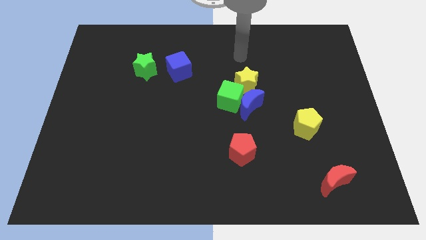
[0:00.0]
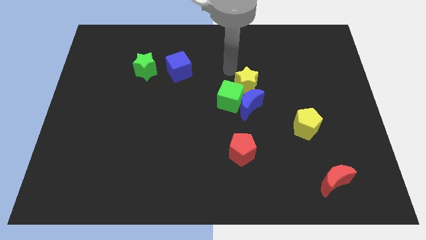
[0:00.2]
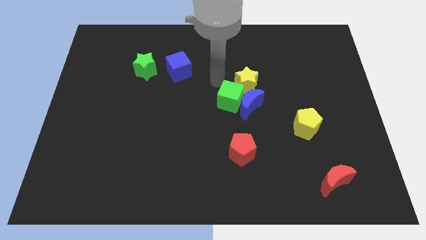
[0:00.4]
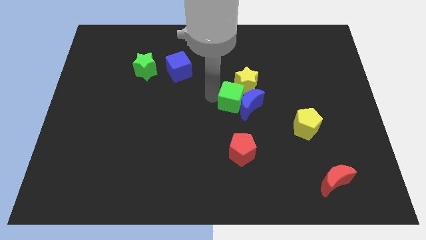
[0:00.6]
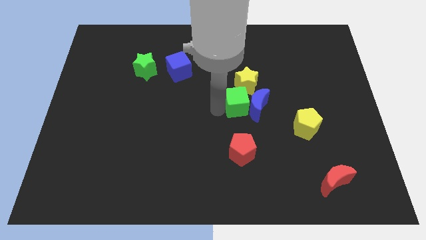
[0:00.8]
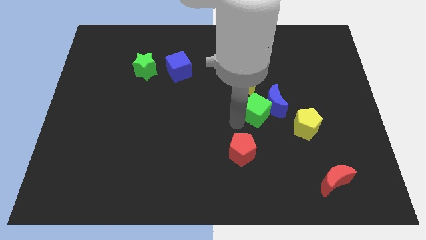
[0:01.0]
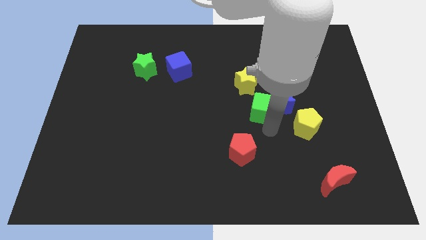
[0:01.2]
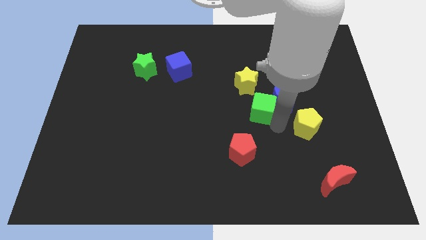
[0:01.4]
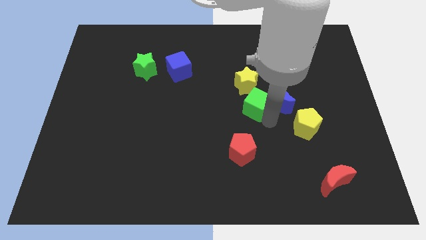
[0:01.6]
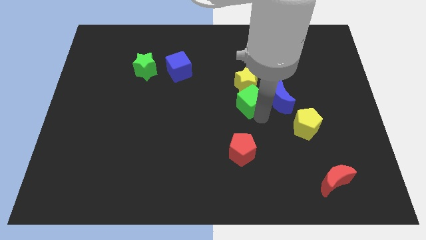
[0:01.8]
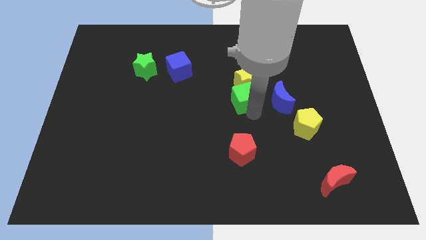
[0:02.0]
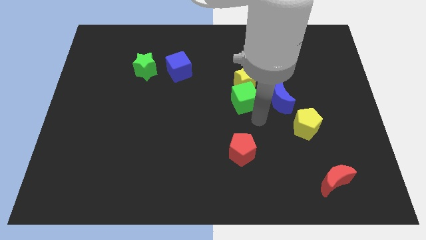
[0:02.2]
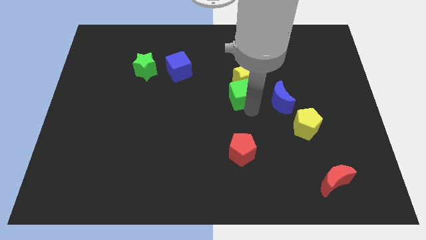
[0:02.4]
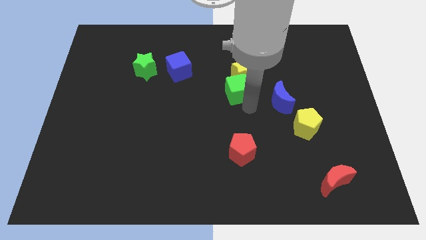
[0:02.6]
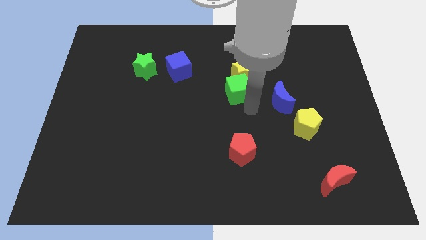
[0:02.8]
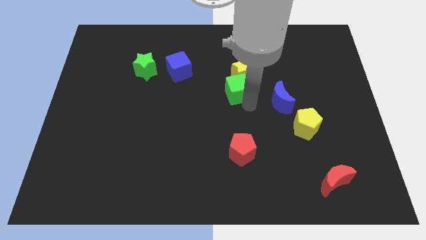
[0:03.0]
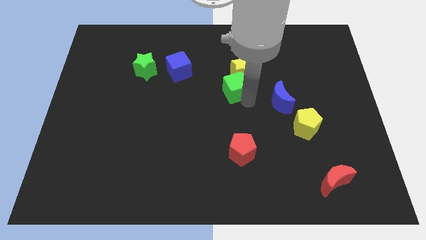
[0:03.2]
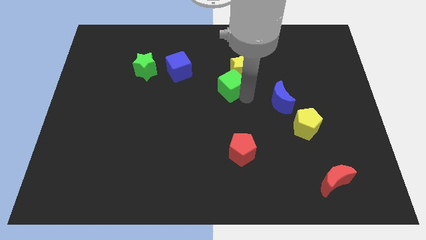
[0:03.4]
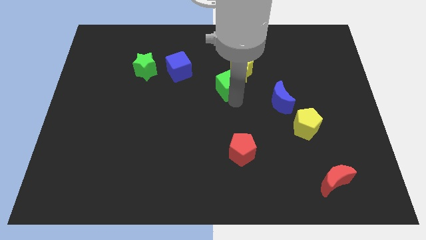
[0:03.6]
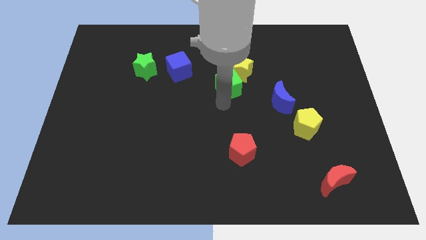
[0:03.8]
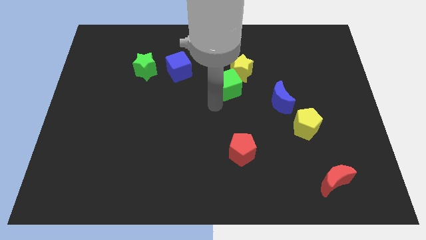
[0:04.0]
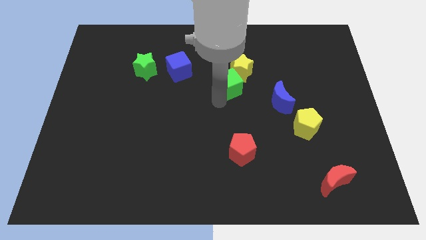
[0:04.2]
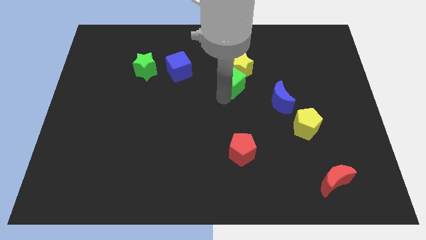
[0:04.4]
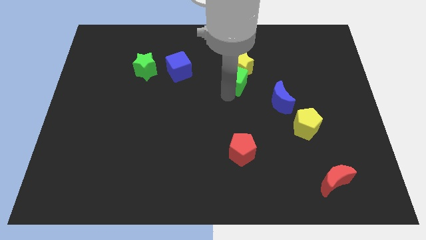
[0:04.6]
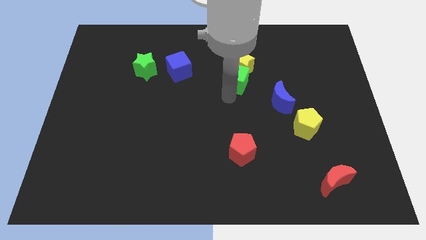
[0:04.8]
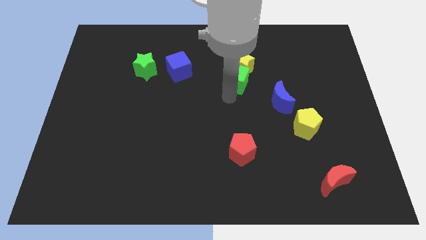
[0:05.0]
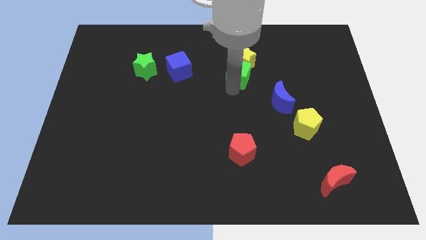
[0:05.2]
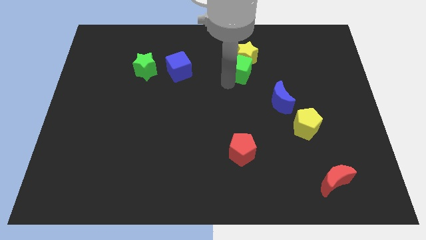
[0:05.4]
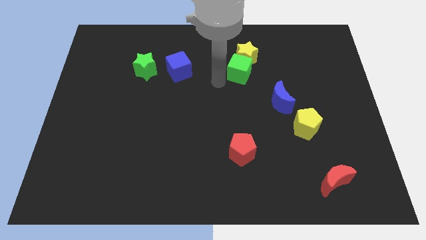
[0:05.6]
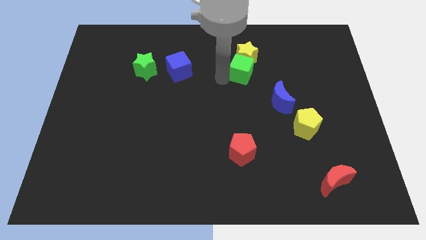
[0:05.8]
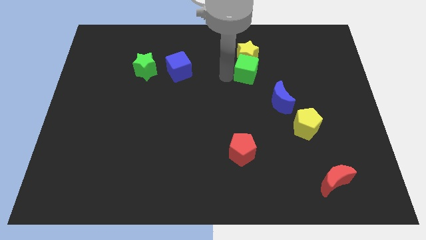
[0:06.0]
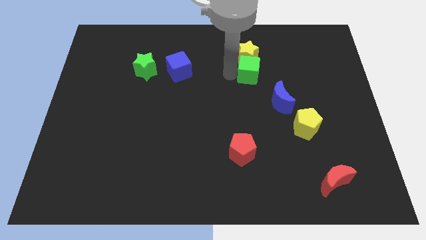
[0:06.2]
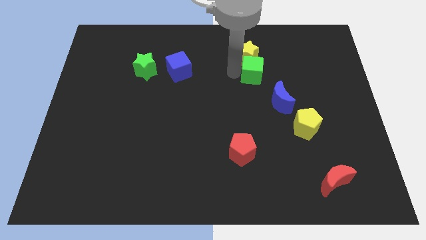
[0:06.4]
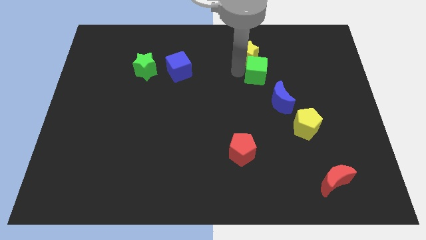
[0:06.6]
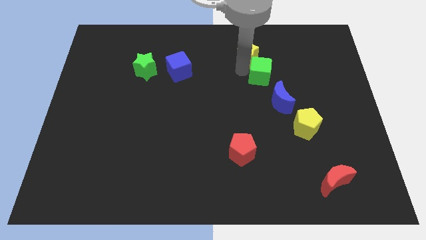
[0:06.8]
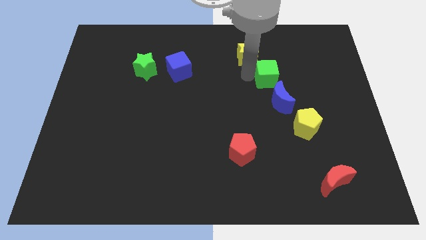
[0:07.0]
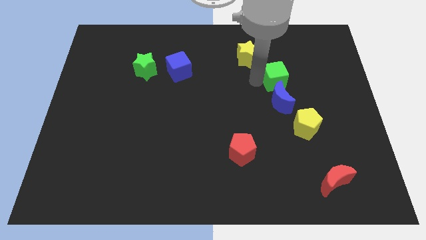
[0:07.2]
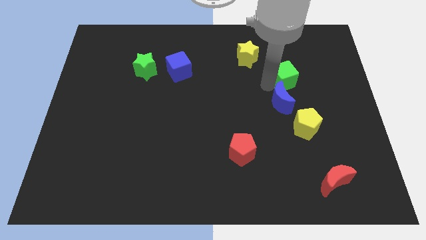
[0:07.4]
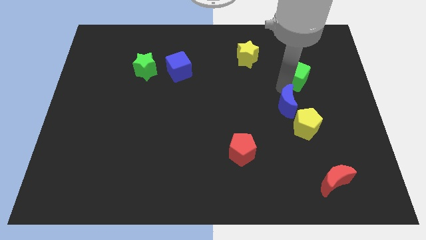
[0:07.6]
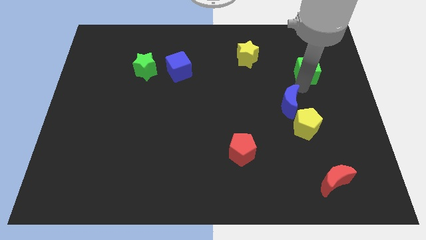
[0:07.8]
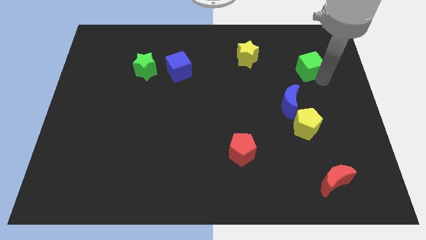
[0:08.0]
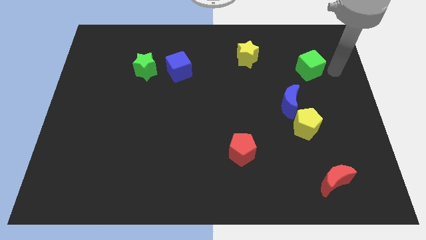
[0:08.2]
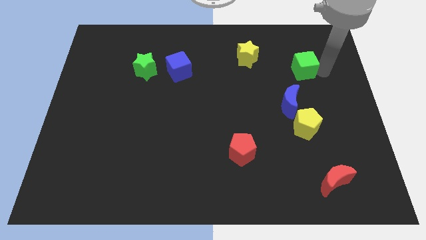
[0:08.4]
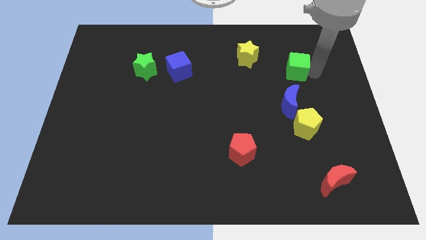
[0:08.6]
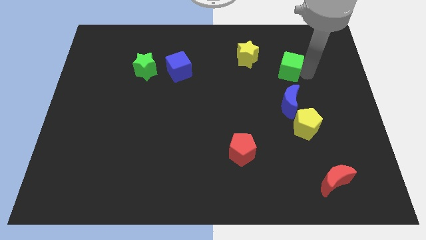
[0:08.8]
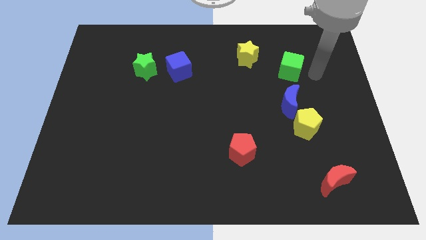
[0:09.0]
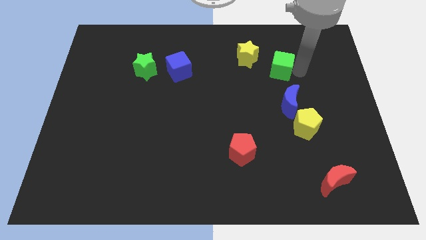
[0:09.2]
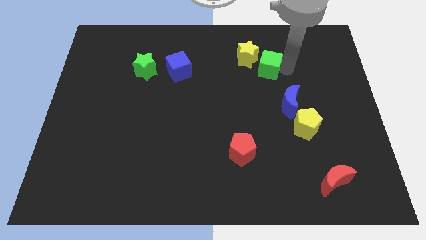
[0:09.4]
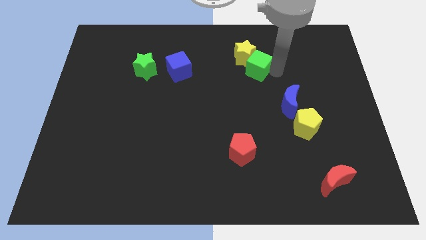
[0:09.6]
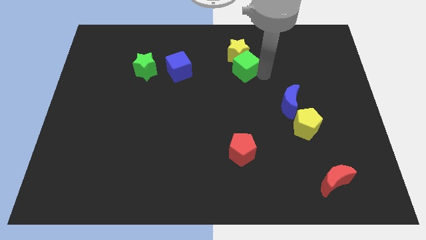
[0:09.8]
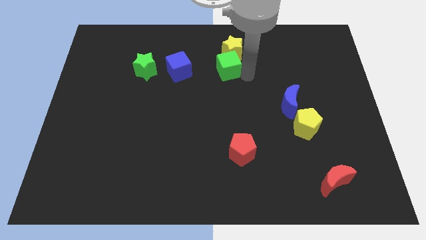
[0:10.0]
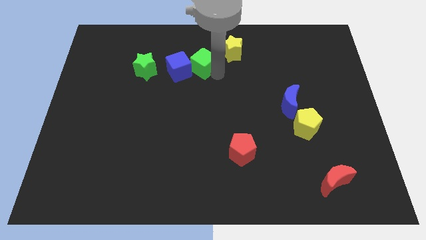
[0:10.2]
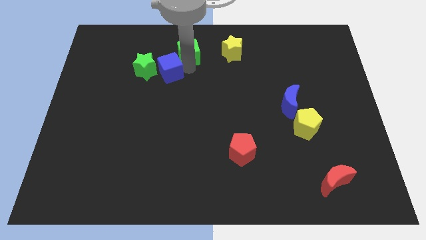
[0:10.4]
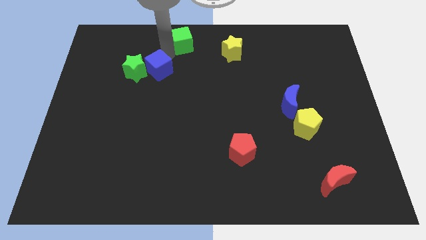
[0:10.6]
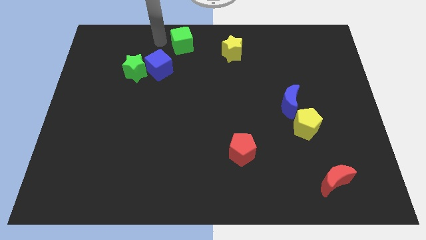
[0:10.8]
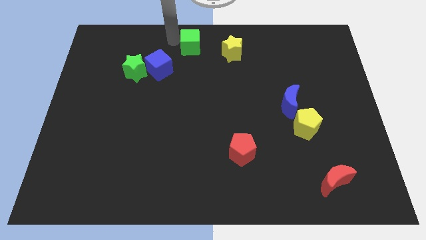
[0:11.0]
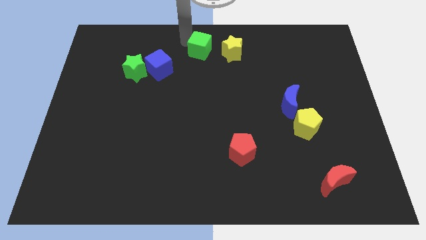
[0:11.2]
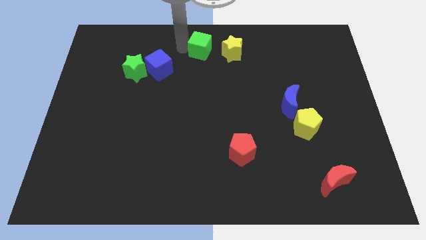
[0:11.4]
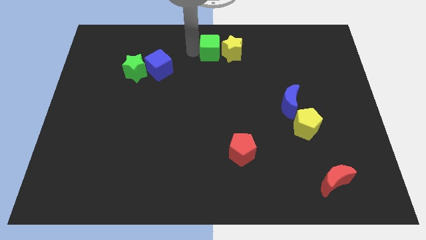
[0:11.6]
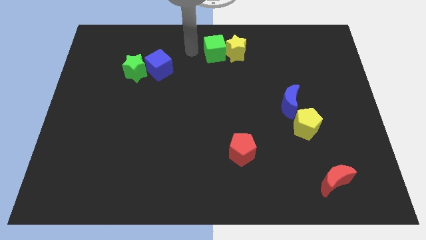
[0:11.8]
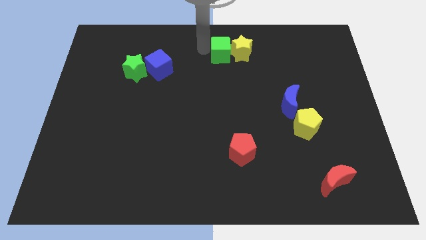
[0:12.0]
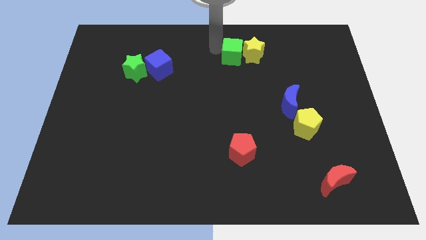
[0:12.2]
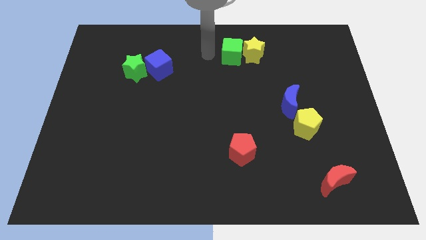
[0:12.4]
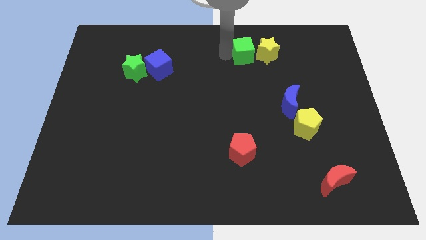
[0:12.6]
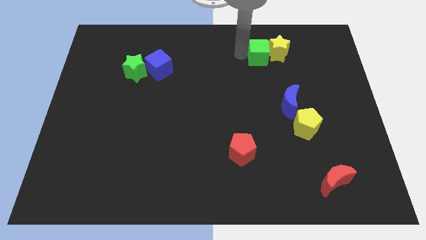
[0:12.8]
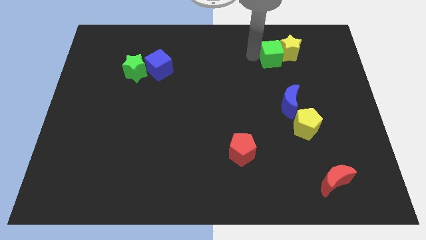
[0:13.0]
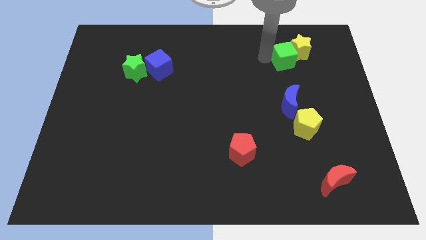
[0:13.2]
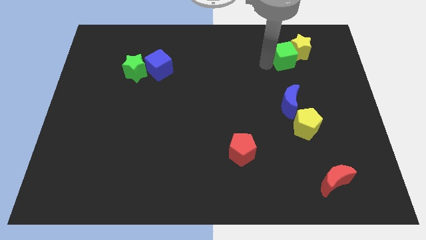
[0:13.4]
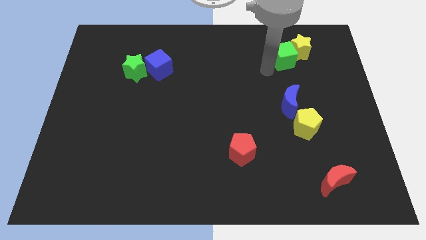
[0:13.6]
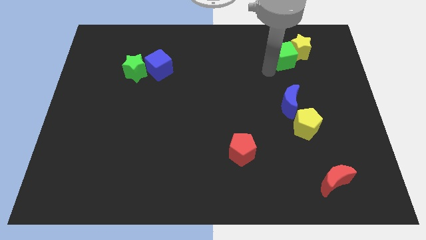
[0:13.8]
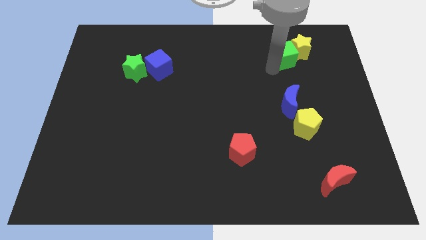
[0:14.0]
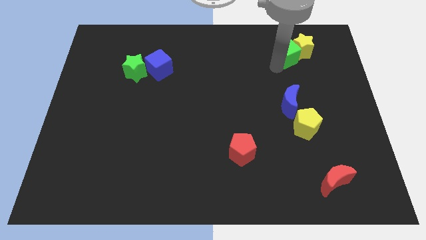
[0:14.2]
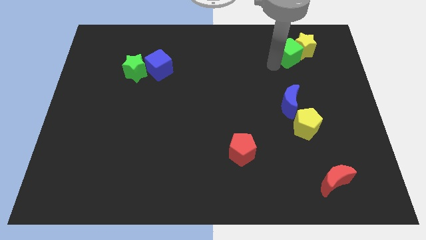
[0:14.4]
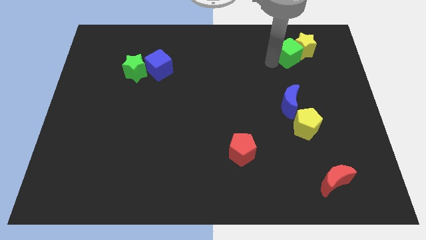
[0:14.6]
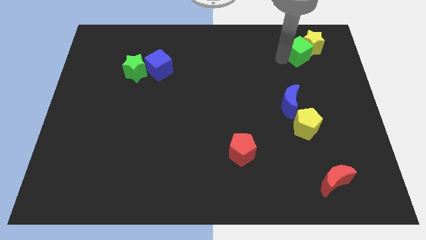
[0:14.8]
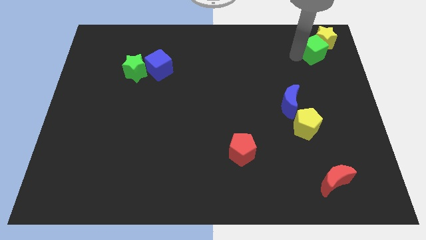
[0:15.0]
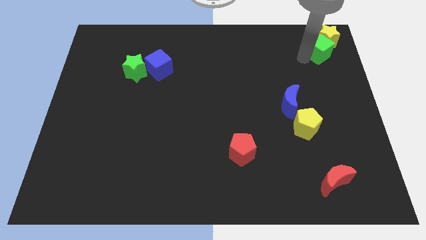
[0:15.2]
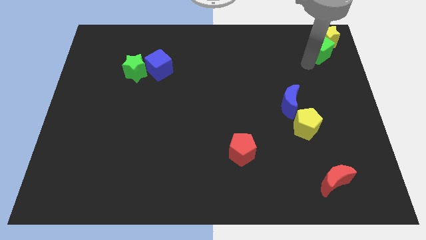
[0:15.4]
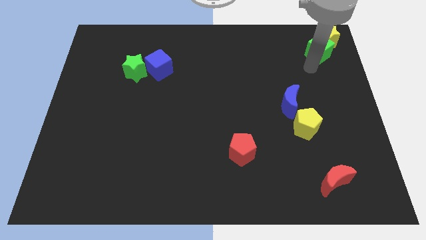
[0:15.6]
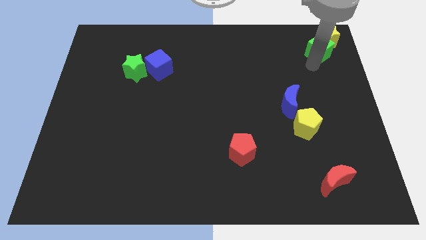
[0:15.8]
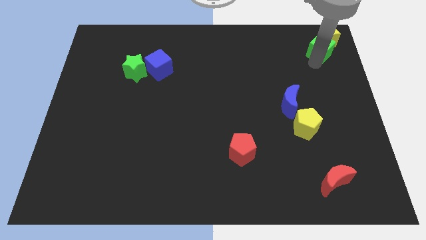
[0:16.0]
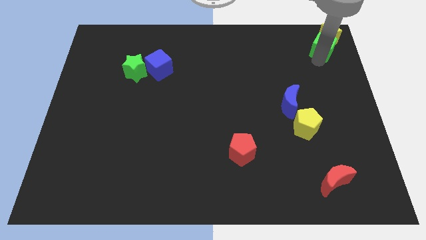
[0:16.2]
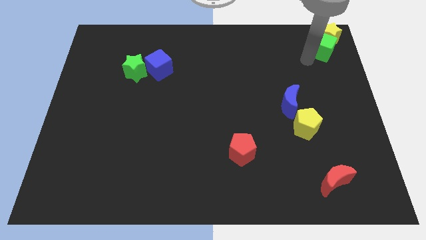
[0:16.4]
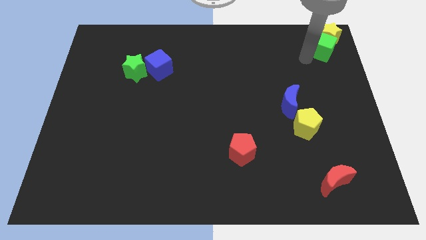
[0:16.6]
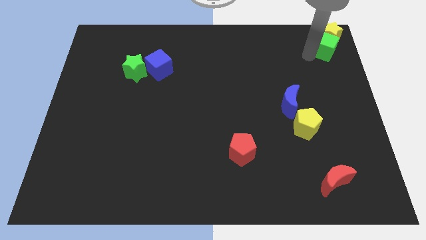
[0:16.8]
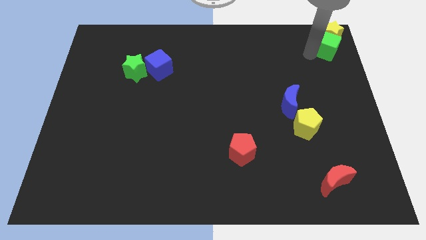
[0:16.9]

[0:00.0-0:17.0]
move the green cube to the top right of the board
